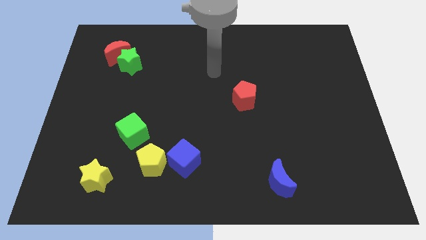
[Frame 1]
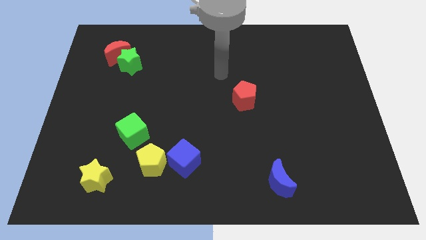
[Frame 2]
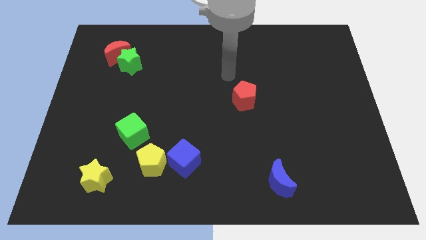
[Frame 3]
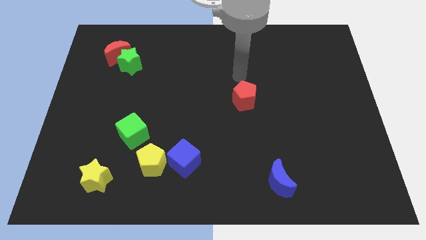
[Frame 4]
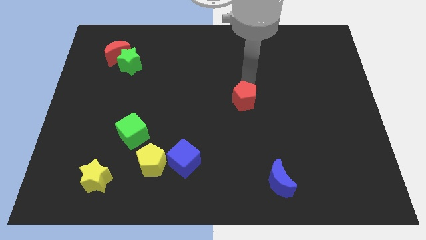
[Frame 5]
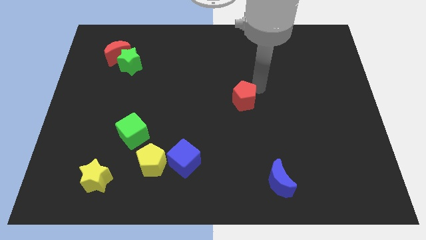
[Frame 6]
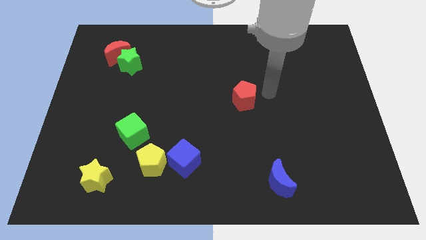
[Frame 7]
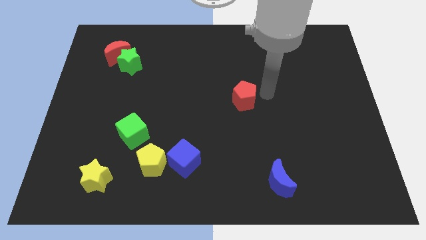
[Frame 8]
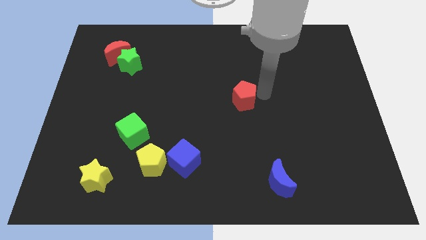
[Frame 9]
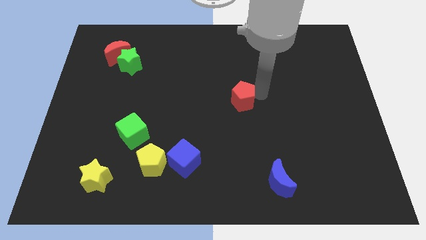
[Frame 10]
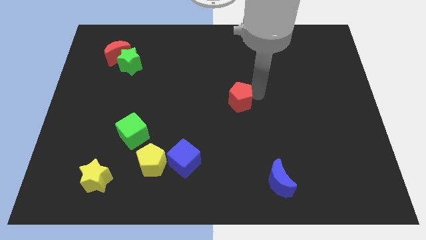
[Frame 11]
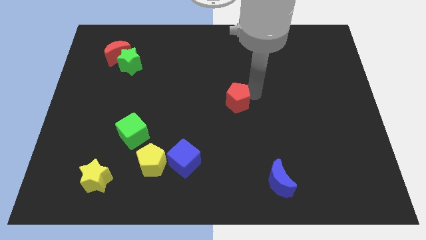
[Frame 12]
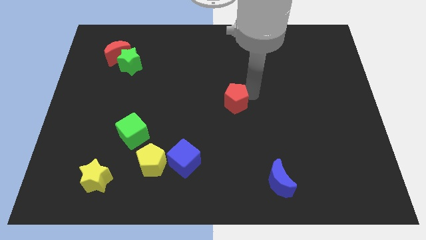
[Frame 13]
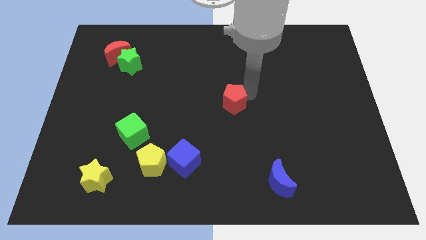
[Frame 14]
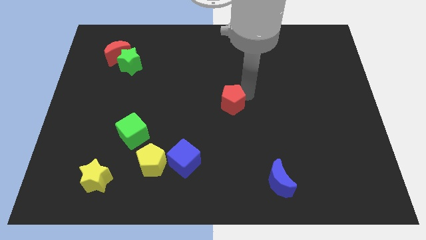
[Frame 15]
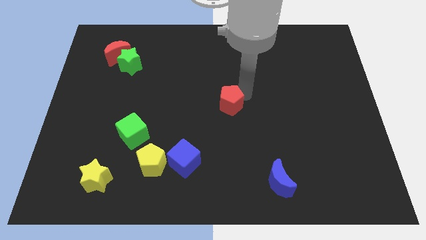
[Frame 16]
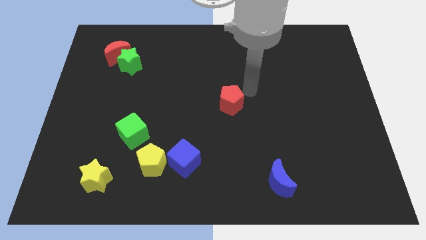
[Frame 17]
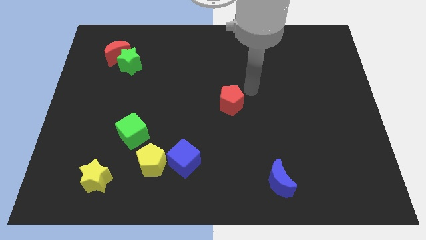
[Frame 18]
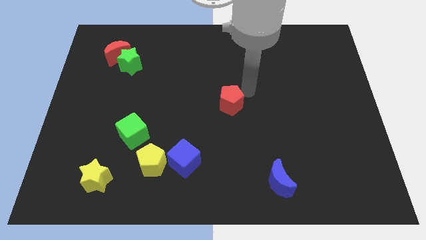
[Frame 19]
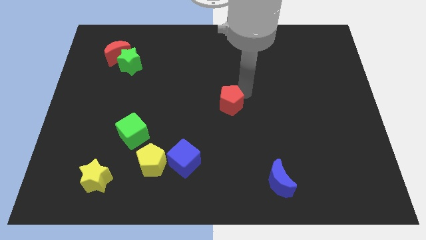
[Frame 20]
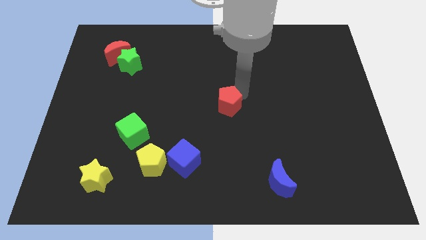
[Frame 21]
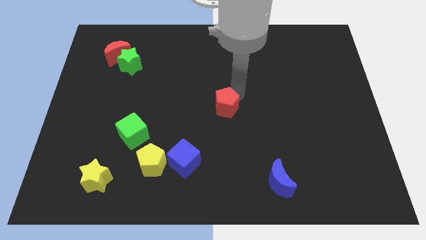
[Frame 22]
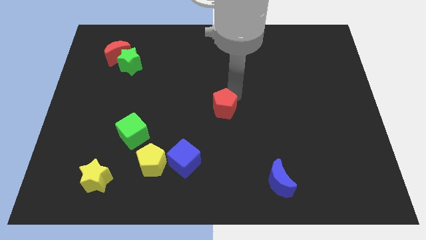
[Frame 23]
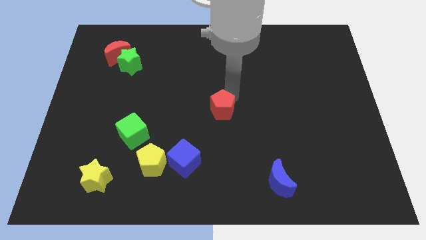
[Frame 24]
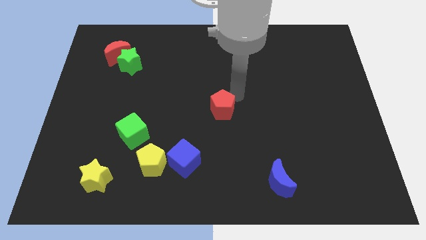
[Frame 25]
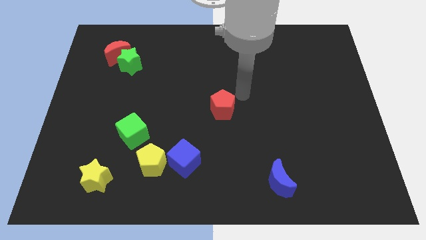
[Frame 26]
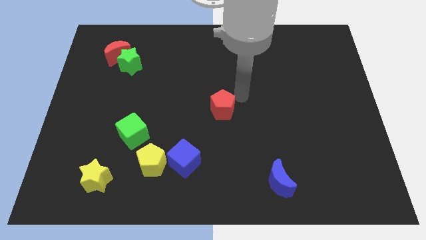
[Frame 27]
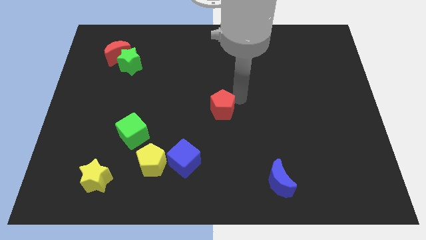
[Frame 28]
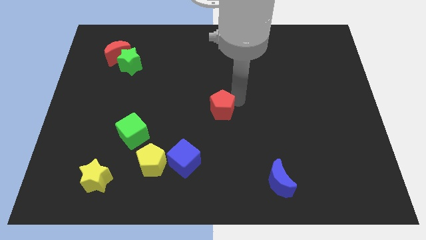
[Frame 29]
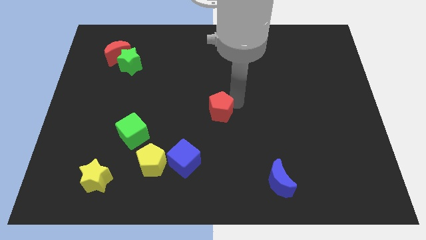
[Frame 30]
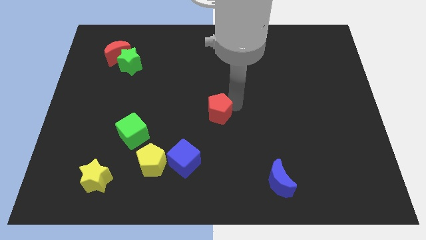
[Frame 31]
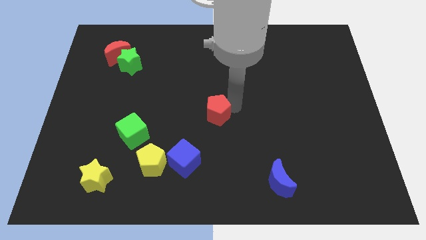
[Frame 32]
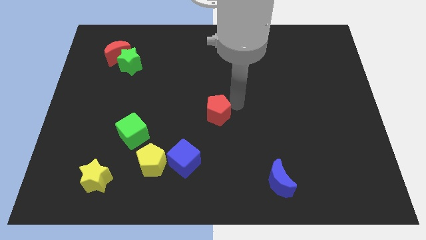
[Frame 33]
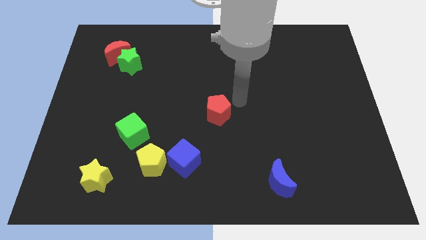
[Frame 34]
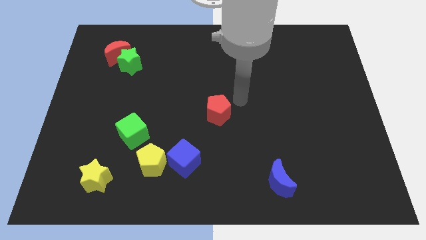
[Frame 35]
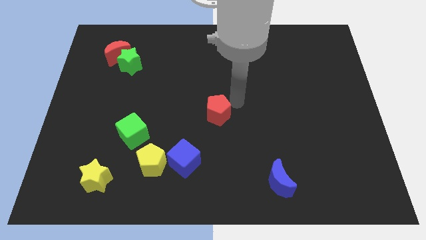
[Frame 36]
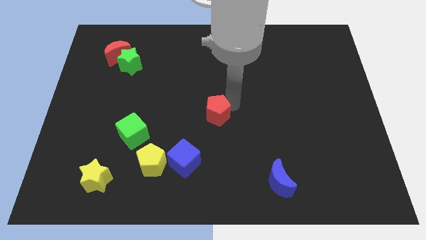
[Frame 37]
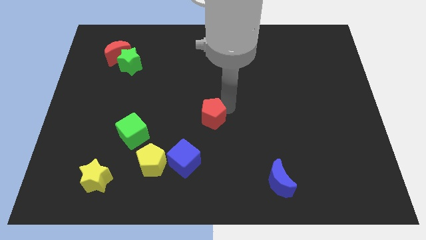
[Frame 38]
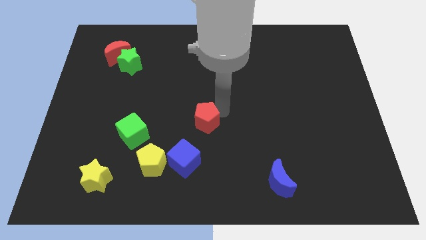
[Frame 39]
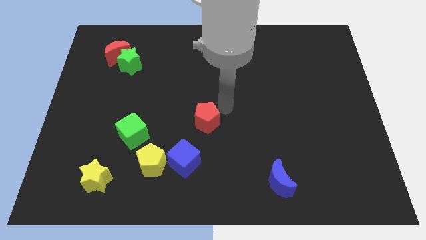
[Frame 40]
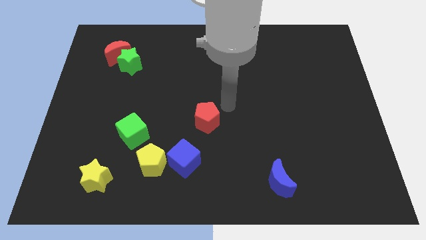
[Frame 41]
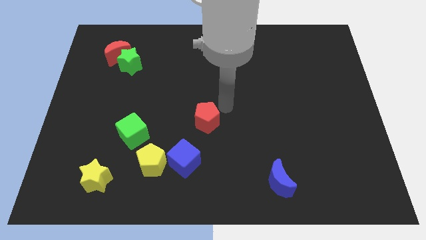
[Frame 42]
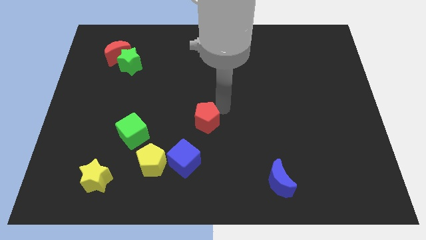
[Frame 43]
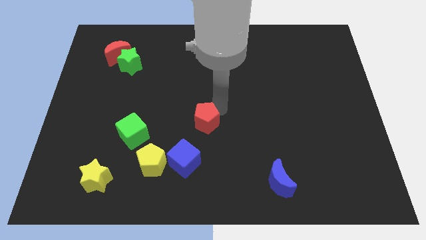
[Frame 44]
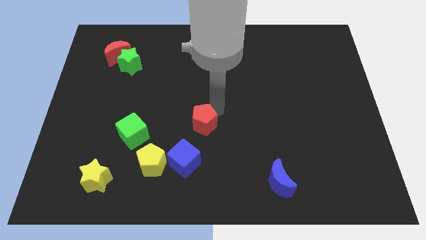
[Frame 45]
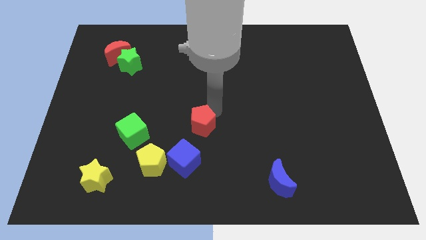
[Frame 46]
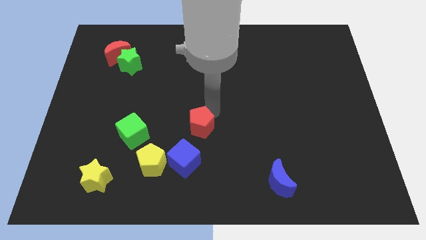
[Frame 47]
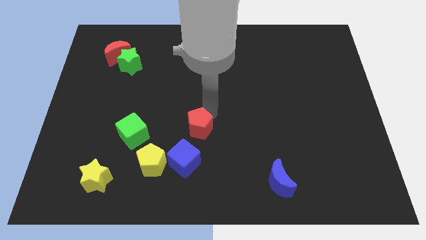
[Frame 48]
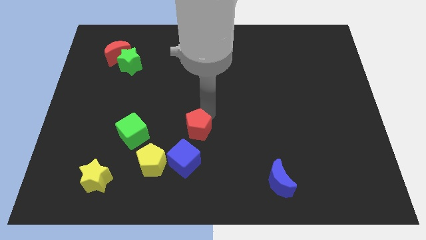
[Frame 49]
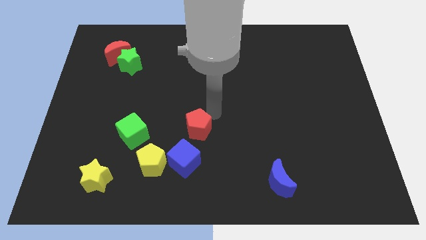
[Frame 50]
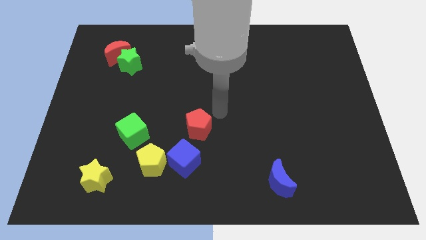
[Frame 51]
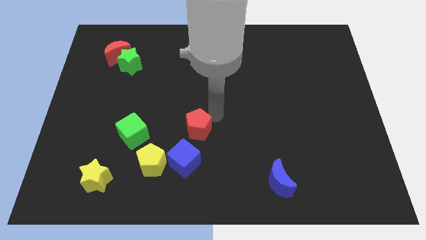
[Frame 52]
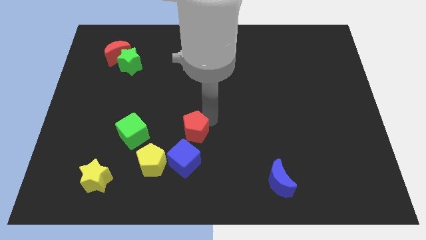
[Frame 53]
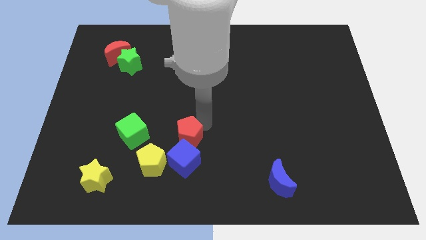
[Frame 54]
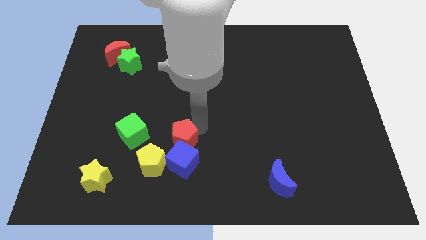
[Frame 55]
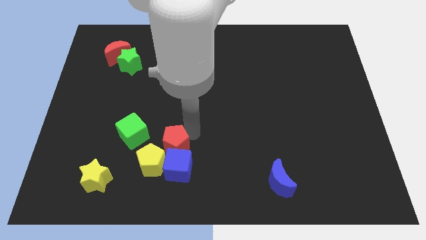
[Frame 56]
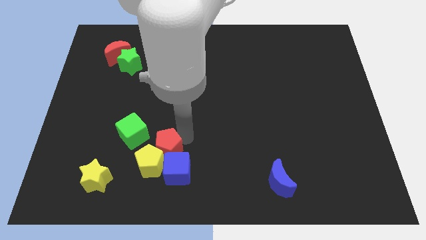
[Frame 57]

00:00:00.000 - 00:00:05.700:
move the red pentagon to the yellow pentagon

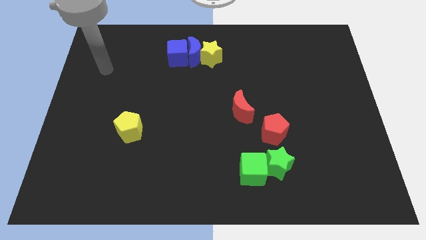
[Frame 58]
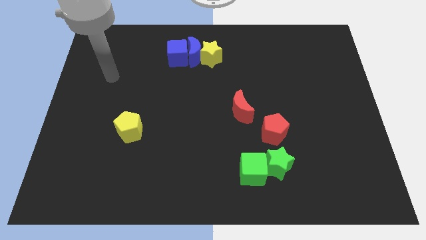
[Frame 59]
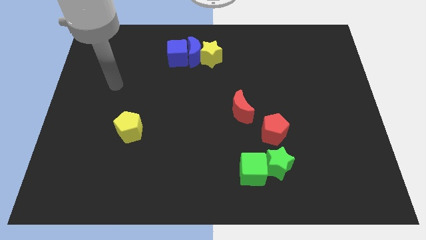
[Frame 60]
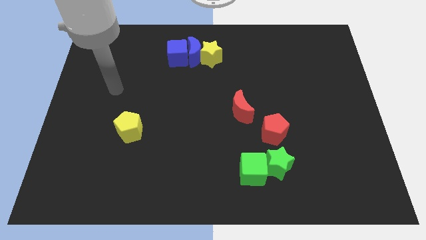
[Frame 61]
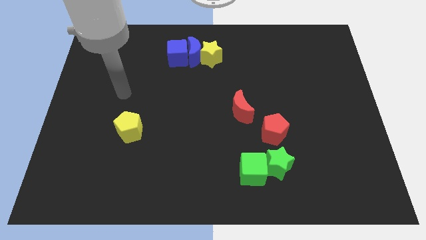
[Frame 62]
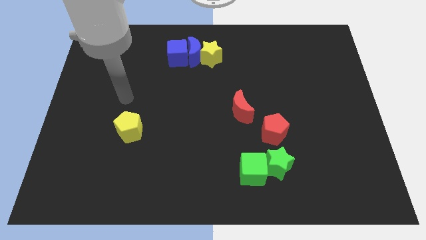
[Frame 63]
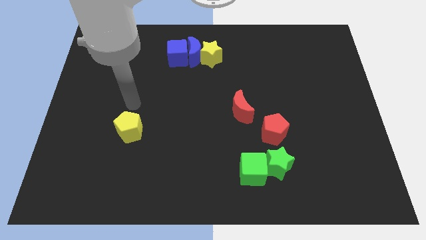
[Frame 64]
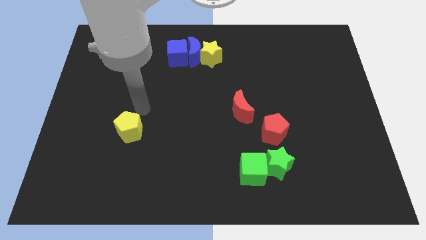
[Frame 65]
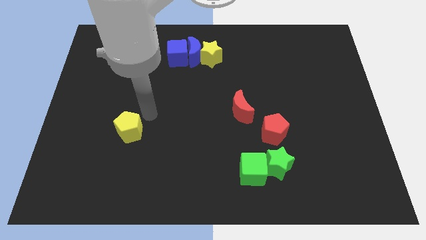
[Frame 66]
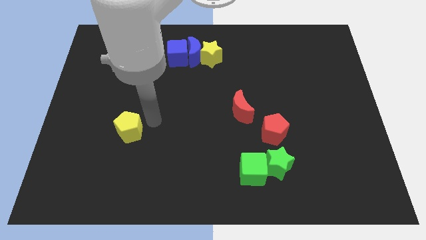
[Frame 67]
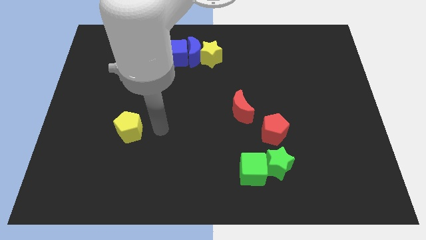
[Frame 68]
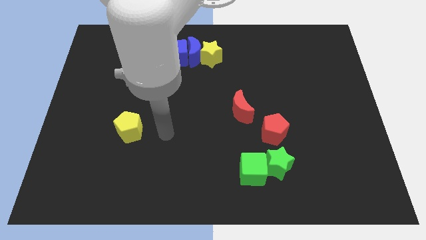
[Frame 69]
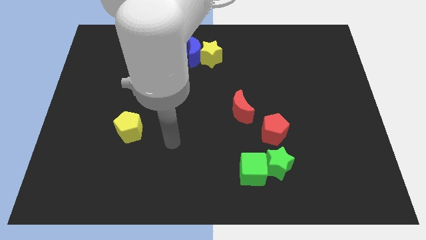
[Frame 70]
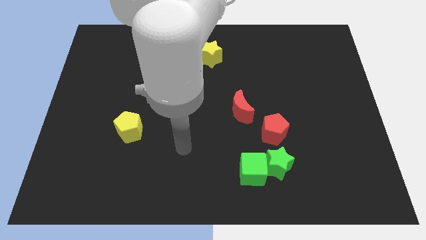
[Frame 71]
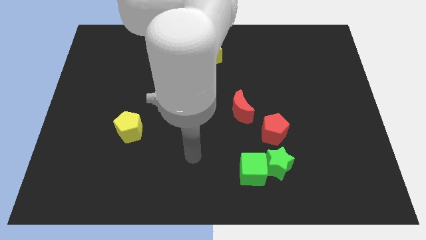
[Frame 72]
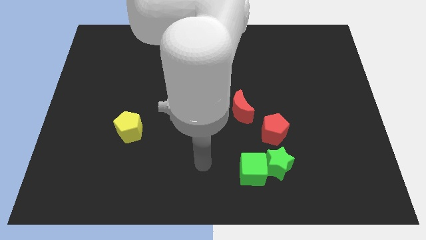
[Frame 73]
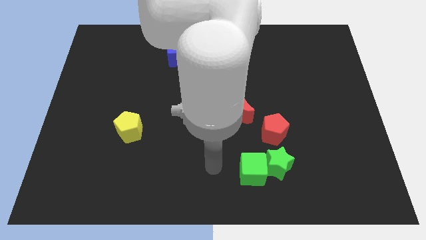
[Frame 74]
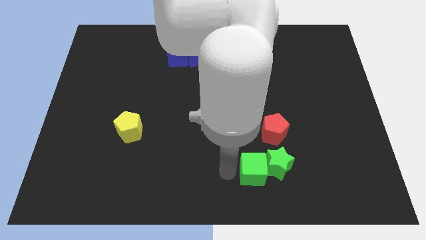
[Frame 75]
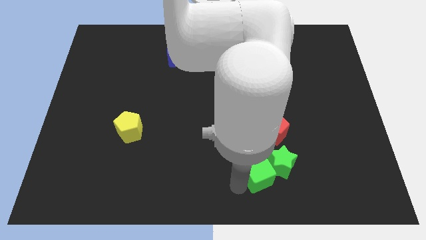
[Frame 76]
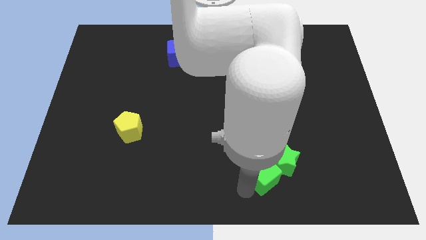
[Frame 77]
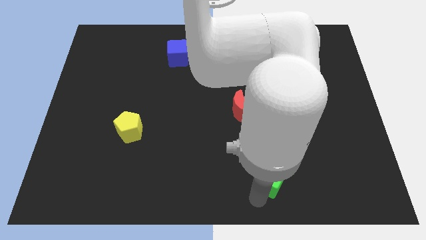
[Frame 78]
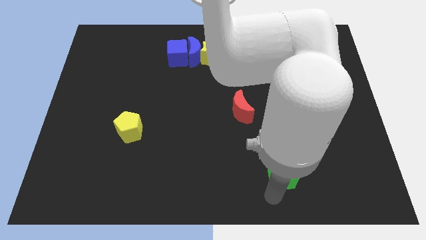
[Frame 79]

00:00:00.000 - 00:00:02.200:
push the green star to the red pentagon
